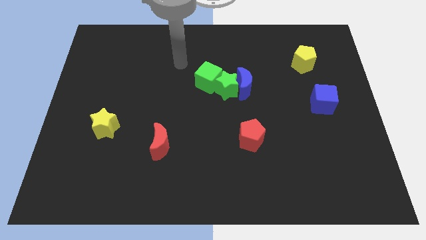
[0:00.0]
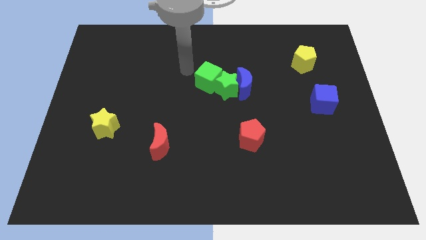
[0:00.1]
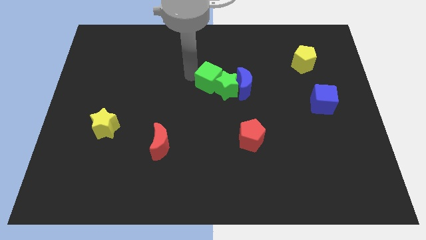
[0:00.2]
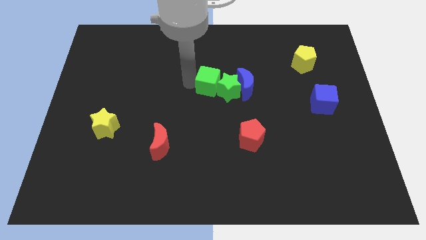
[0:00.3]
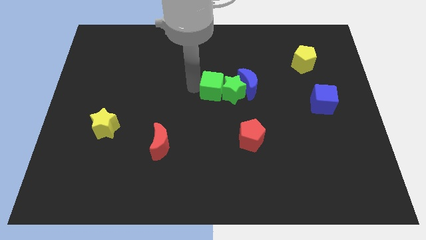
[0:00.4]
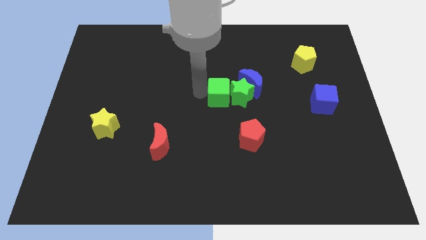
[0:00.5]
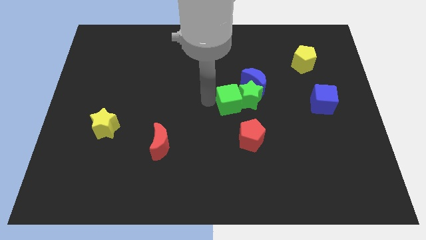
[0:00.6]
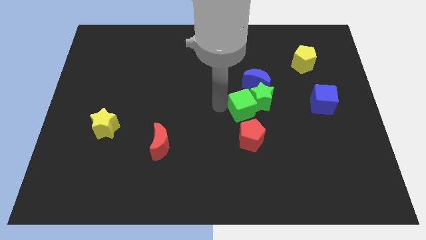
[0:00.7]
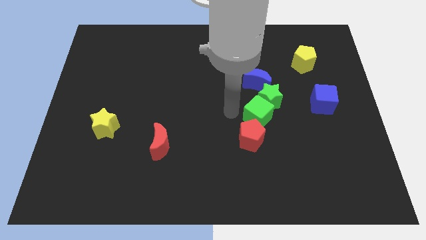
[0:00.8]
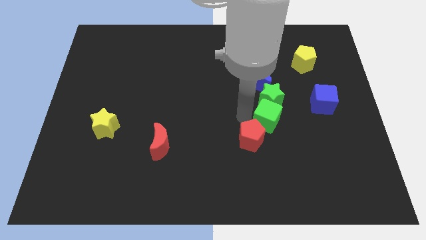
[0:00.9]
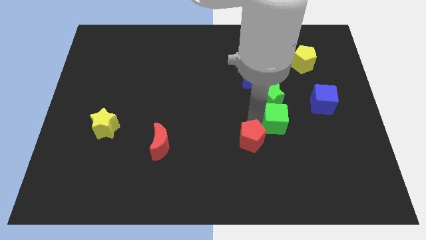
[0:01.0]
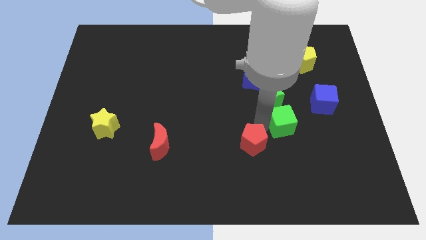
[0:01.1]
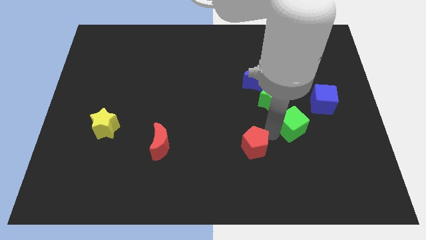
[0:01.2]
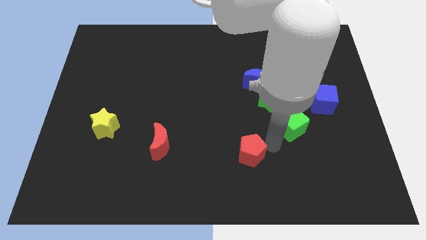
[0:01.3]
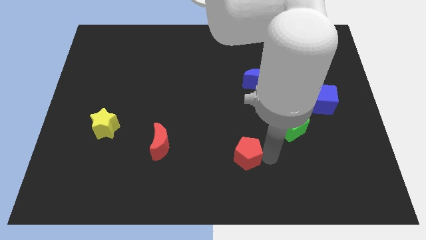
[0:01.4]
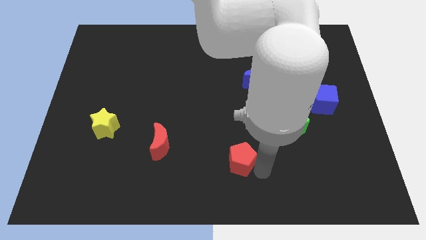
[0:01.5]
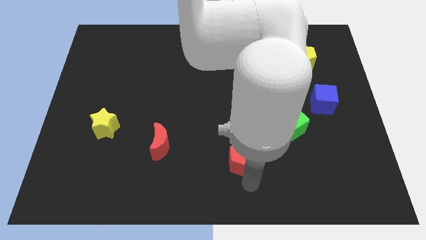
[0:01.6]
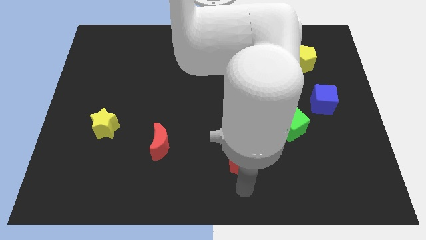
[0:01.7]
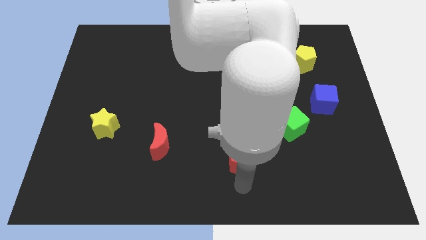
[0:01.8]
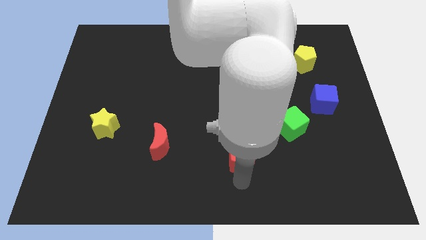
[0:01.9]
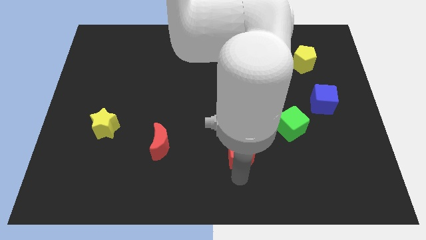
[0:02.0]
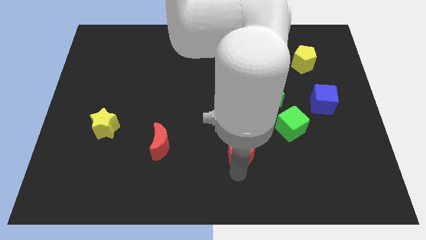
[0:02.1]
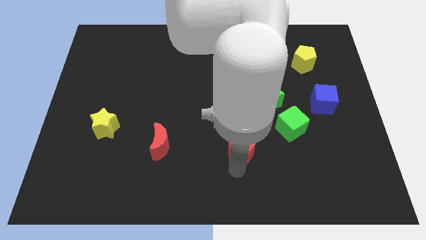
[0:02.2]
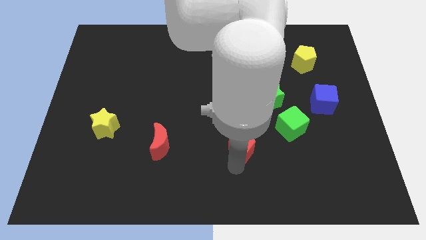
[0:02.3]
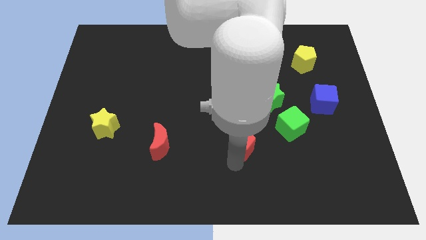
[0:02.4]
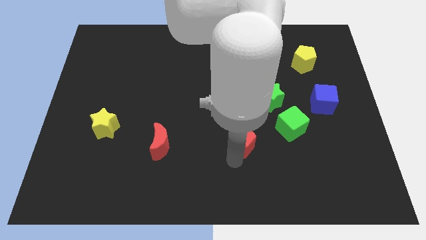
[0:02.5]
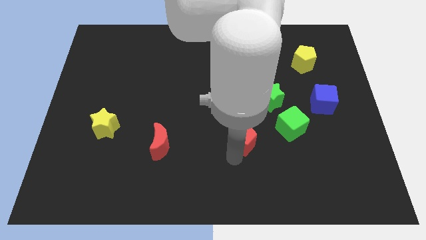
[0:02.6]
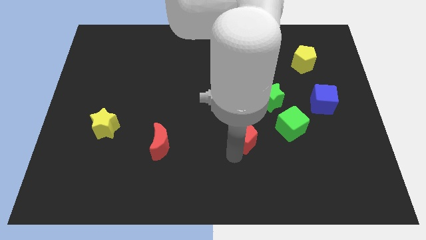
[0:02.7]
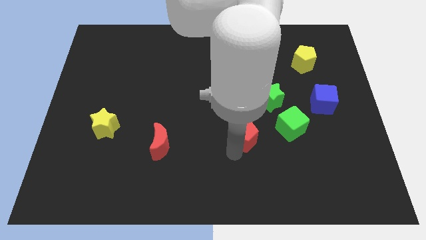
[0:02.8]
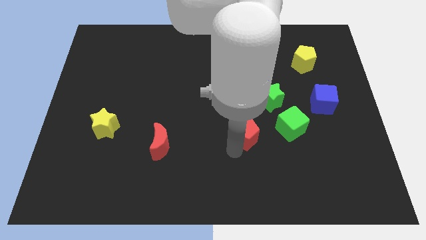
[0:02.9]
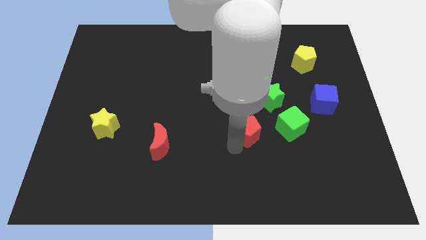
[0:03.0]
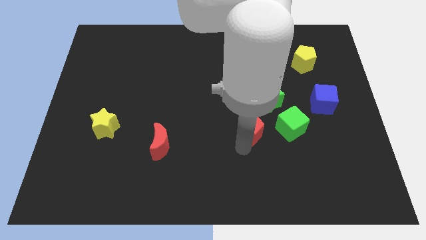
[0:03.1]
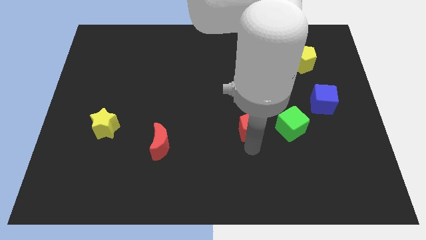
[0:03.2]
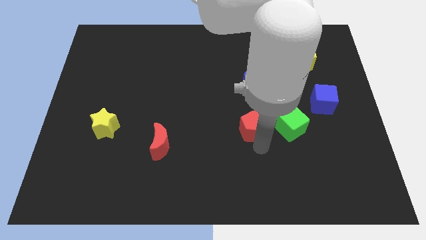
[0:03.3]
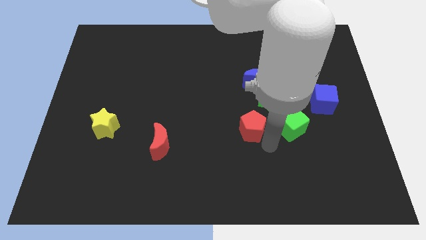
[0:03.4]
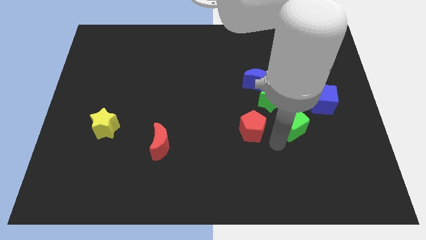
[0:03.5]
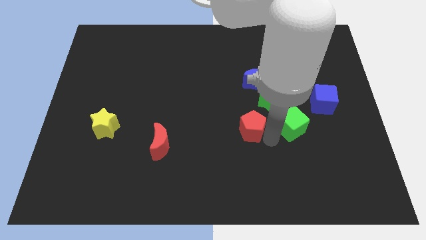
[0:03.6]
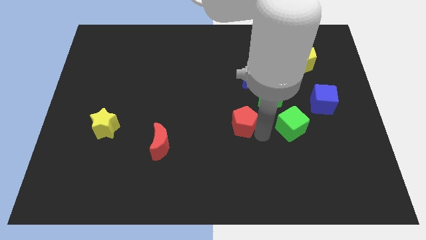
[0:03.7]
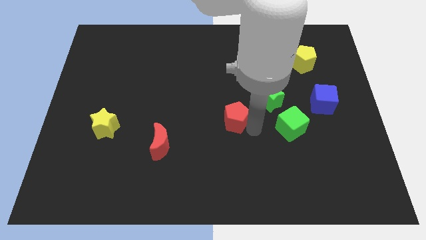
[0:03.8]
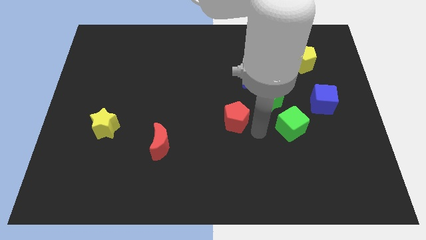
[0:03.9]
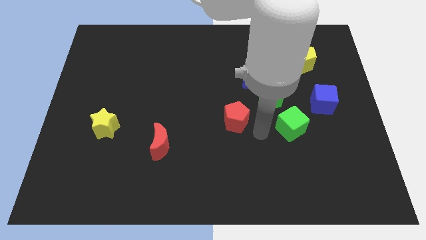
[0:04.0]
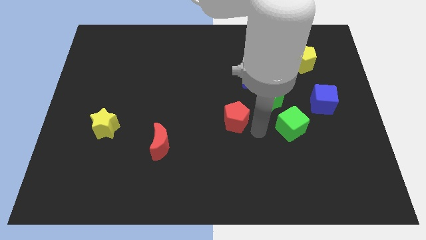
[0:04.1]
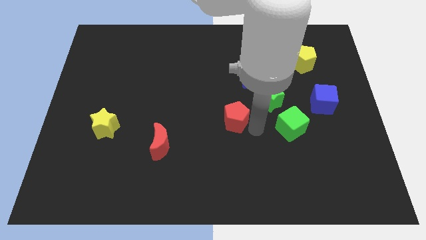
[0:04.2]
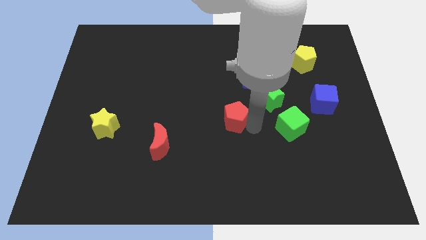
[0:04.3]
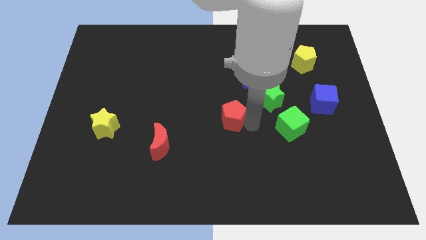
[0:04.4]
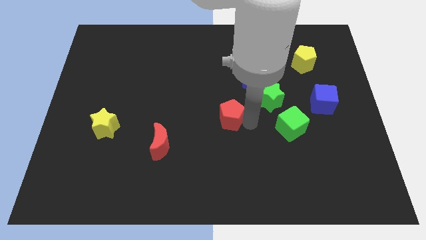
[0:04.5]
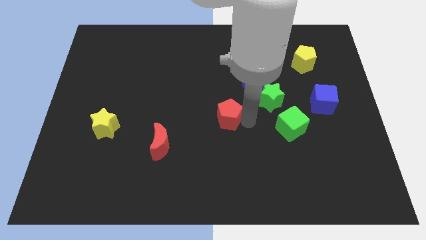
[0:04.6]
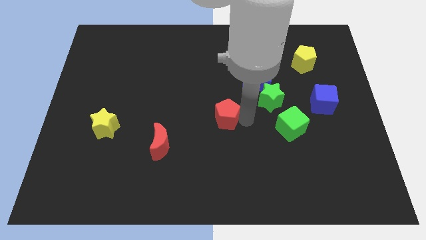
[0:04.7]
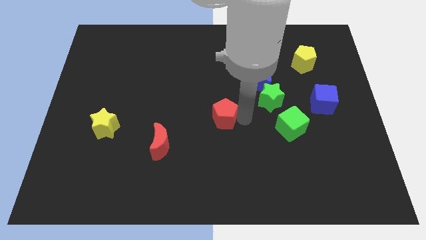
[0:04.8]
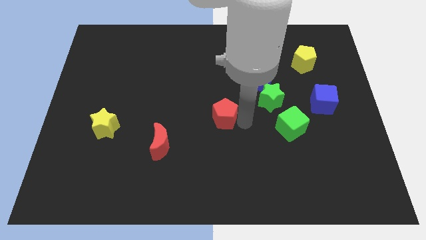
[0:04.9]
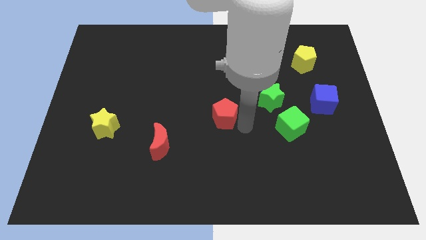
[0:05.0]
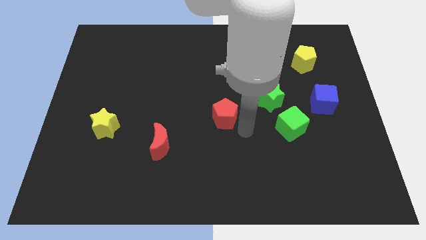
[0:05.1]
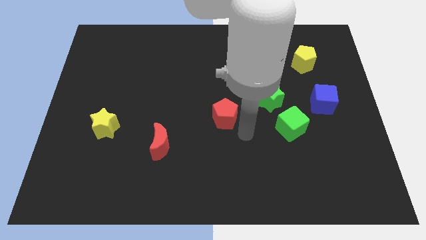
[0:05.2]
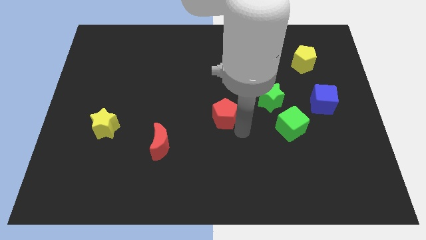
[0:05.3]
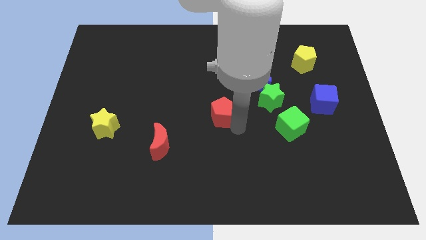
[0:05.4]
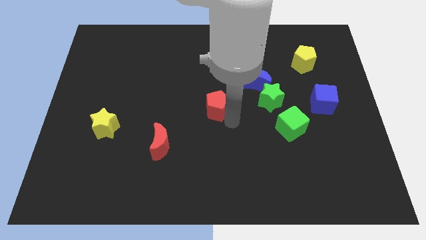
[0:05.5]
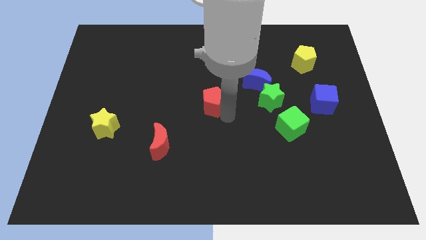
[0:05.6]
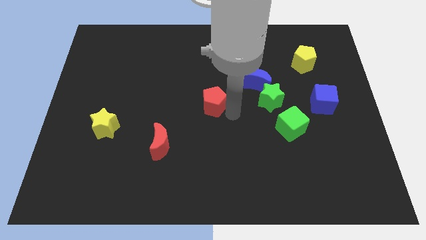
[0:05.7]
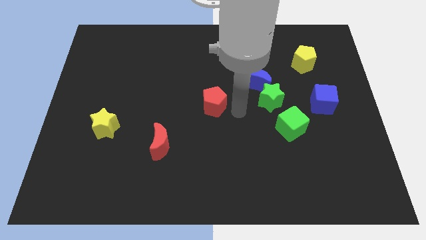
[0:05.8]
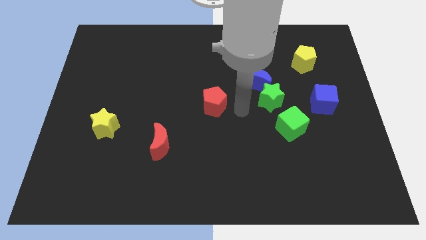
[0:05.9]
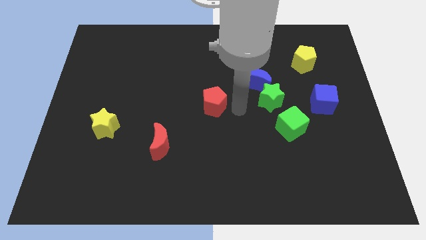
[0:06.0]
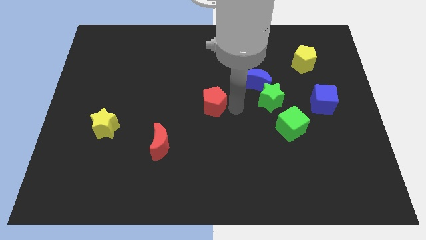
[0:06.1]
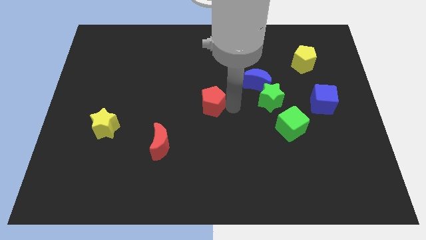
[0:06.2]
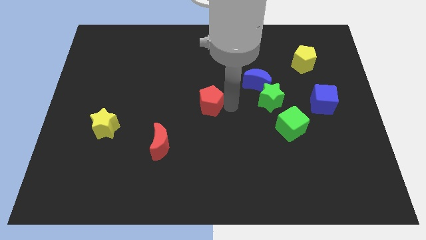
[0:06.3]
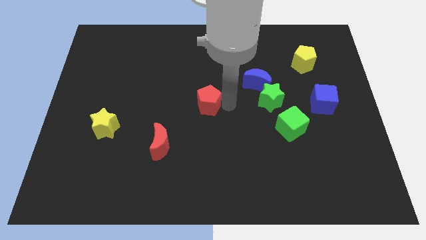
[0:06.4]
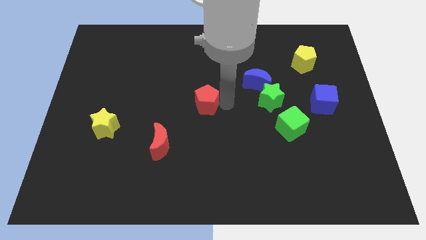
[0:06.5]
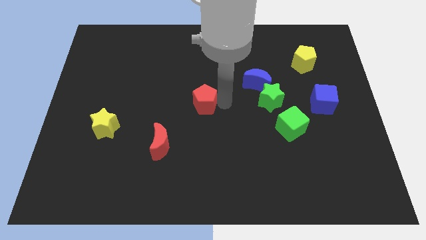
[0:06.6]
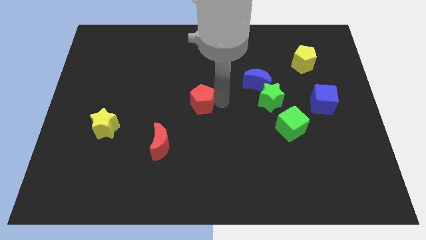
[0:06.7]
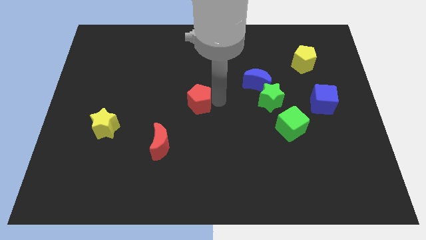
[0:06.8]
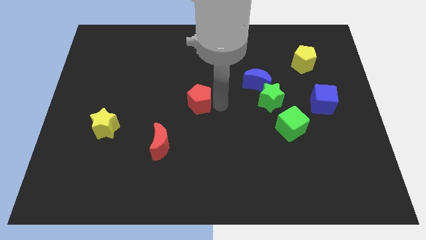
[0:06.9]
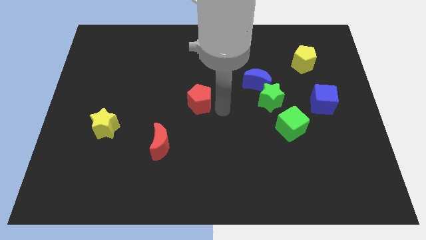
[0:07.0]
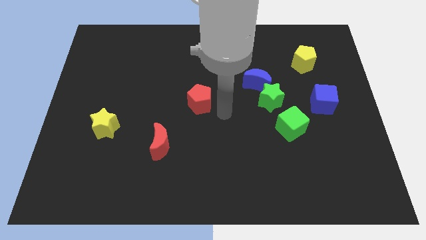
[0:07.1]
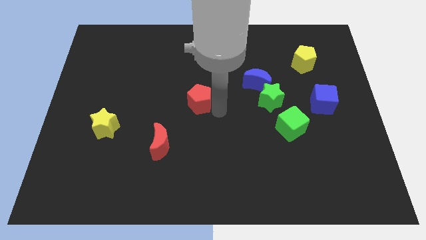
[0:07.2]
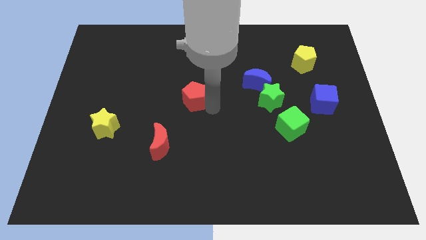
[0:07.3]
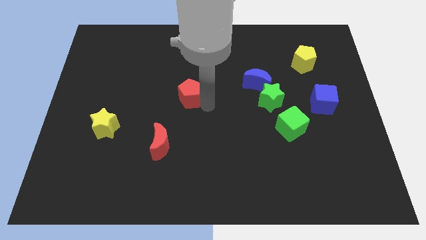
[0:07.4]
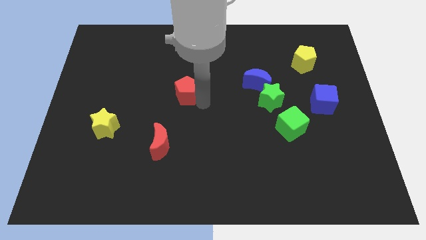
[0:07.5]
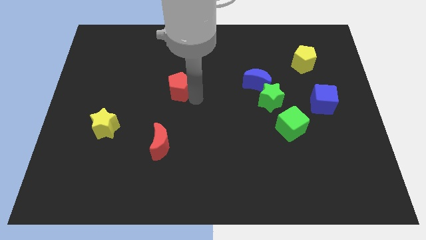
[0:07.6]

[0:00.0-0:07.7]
push the red pentagon up and then to the left

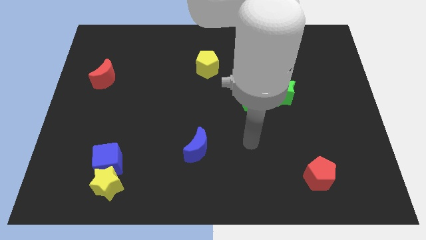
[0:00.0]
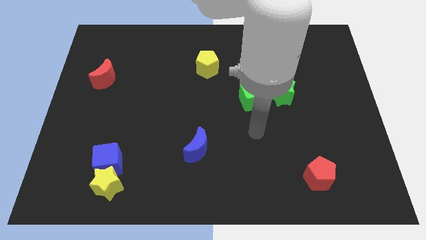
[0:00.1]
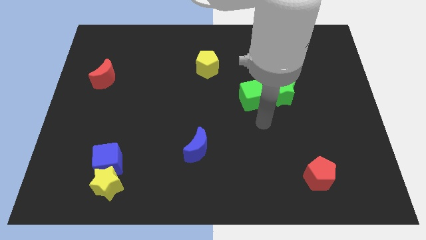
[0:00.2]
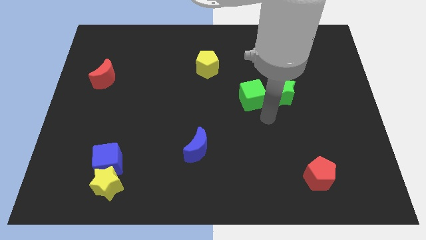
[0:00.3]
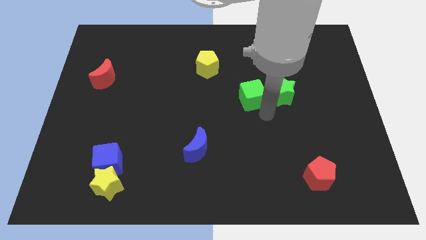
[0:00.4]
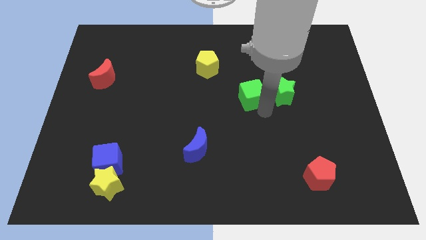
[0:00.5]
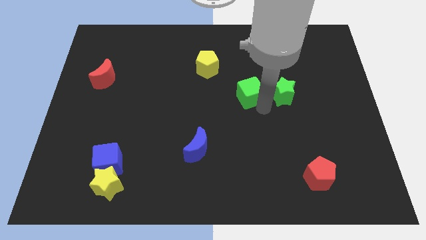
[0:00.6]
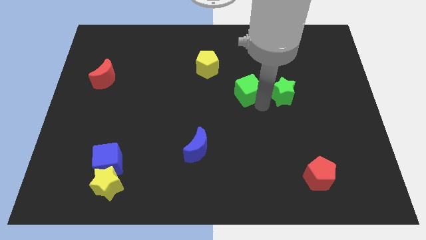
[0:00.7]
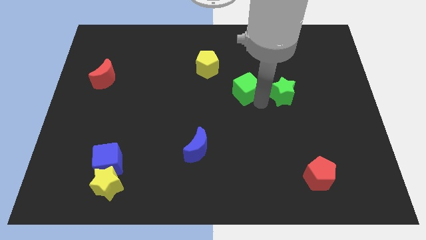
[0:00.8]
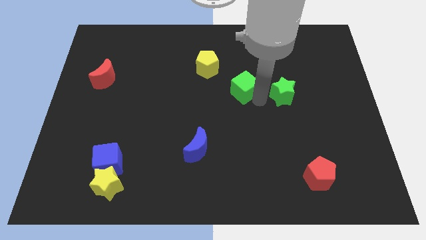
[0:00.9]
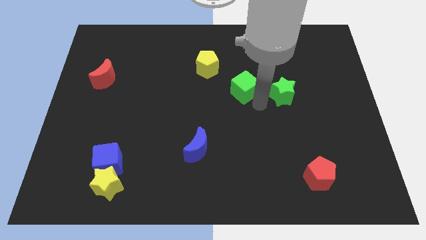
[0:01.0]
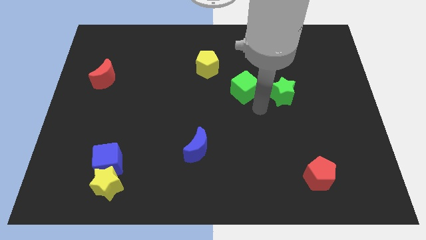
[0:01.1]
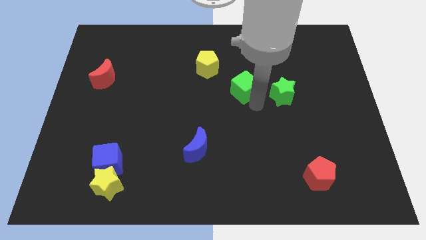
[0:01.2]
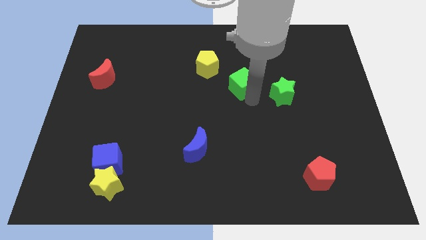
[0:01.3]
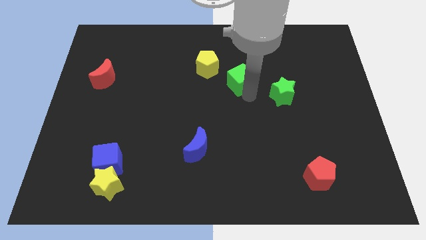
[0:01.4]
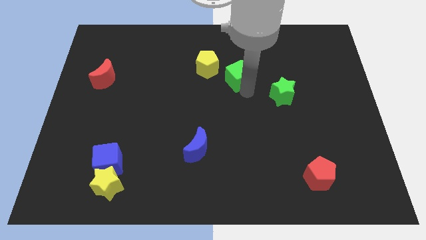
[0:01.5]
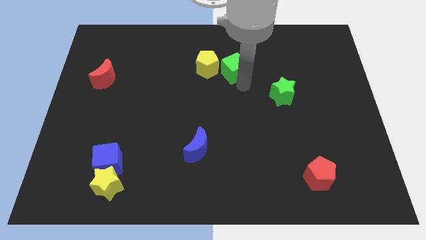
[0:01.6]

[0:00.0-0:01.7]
slightly move the green cube upwards and to the left
